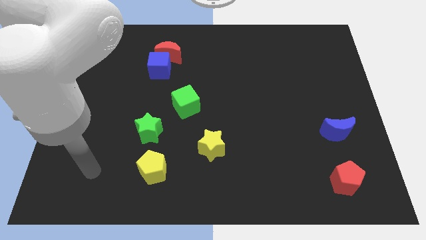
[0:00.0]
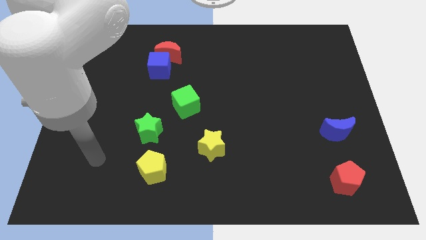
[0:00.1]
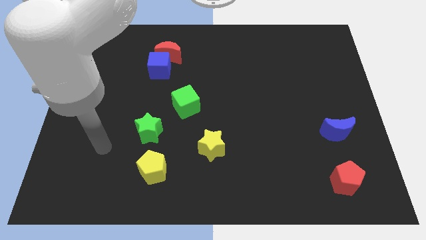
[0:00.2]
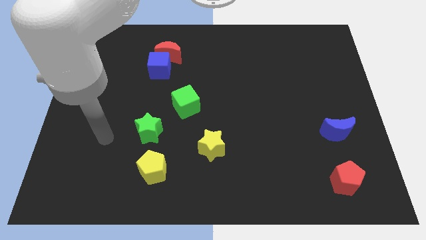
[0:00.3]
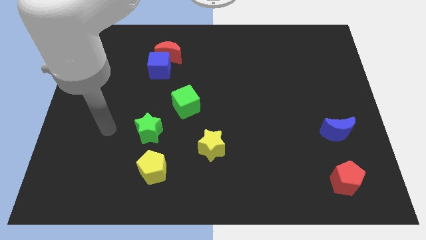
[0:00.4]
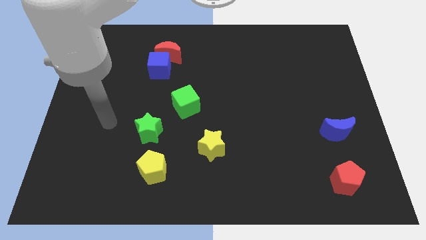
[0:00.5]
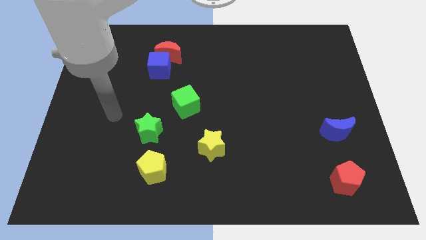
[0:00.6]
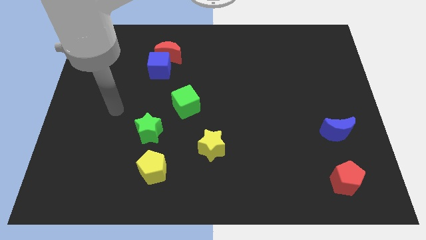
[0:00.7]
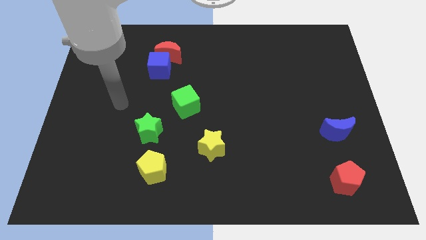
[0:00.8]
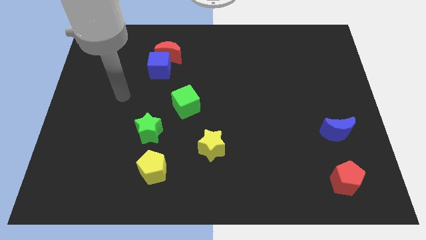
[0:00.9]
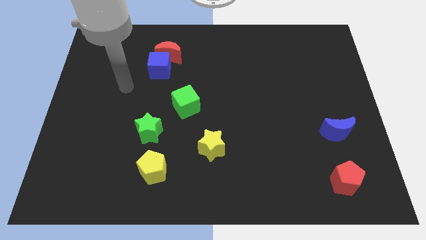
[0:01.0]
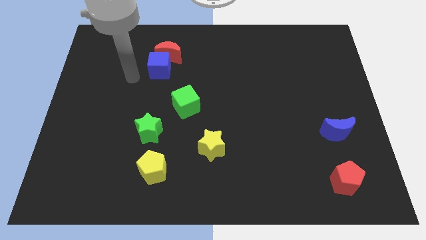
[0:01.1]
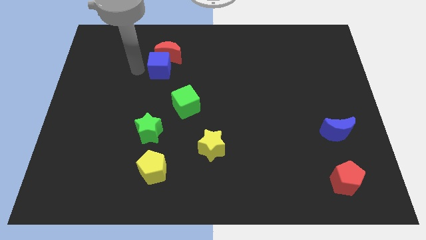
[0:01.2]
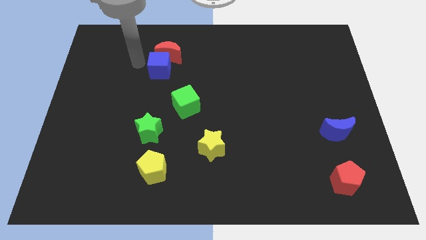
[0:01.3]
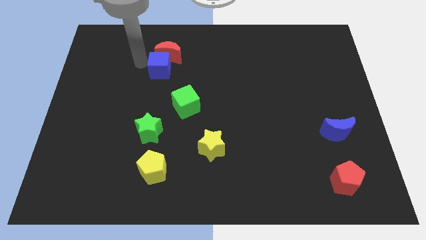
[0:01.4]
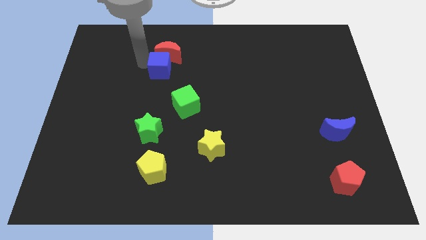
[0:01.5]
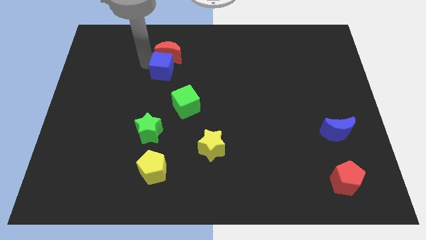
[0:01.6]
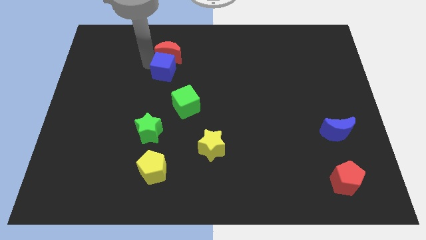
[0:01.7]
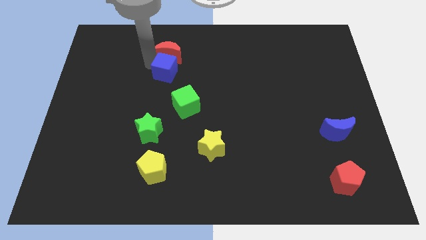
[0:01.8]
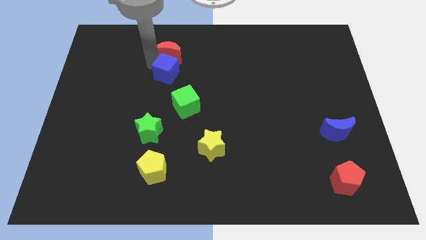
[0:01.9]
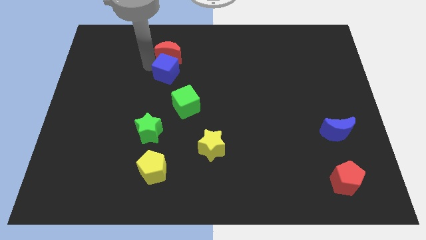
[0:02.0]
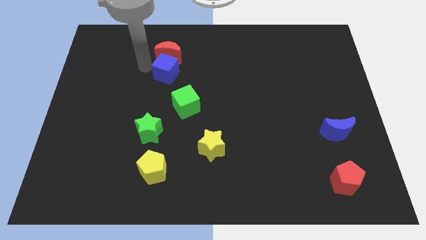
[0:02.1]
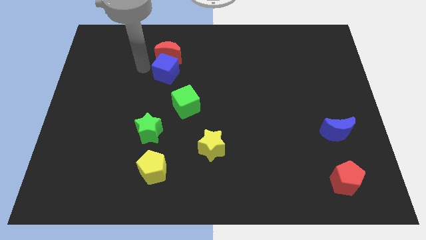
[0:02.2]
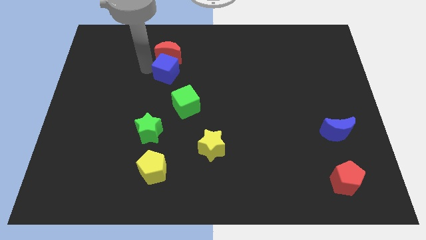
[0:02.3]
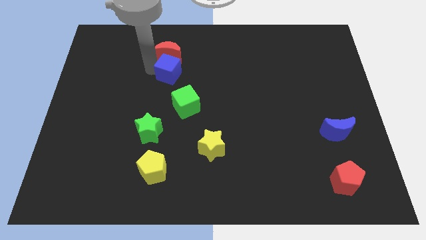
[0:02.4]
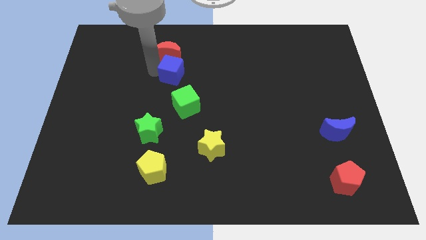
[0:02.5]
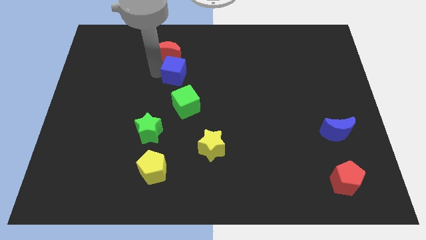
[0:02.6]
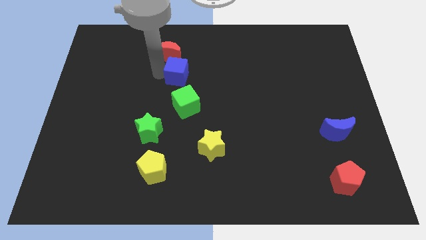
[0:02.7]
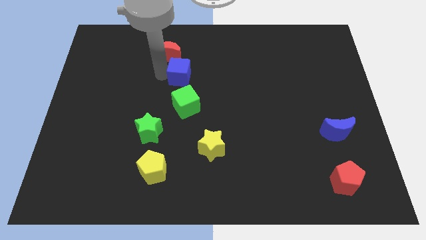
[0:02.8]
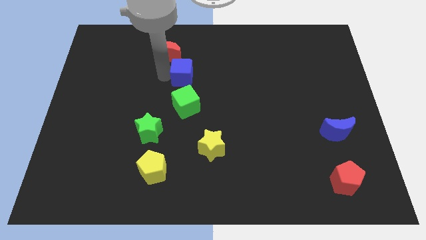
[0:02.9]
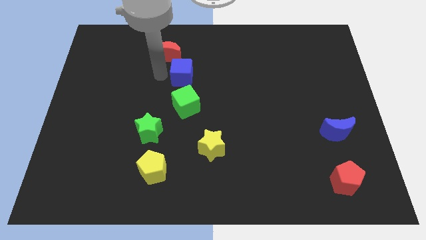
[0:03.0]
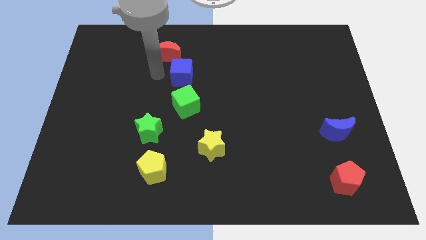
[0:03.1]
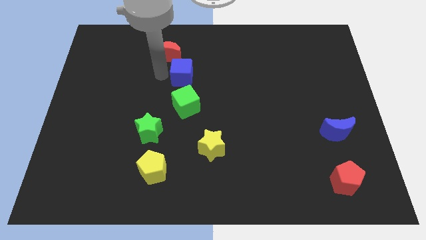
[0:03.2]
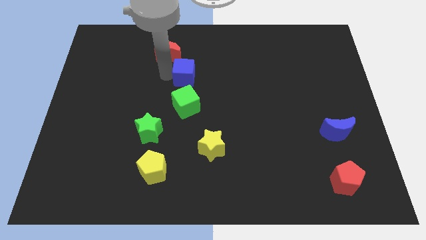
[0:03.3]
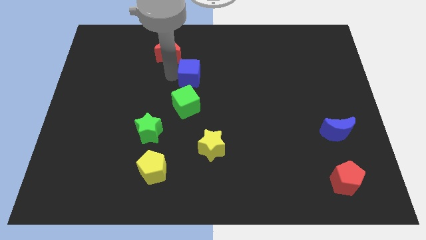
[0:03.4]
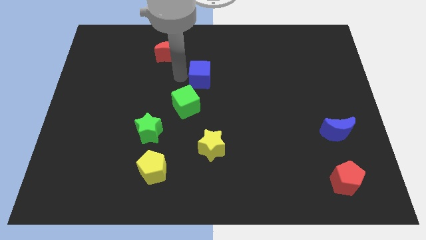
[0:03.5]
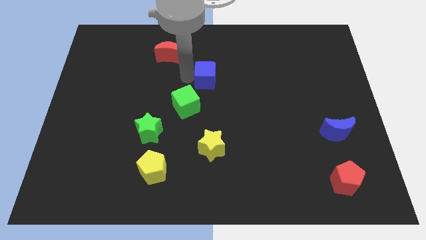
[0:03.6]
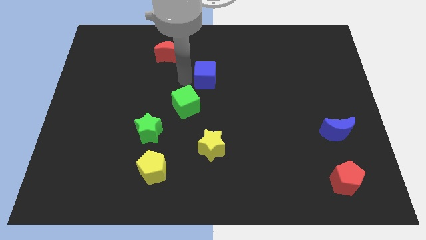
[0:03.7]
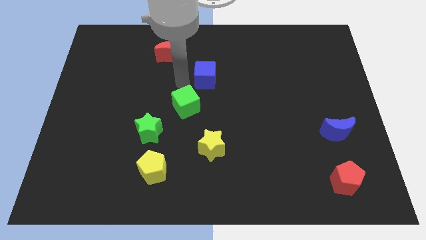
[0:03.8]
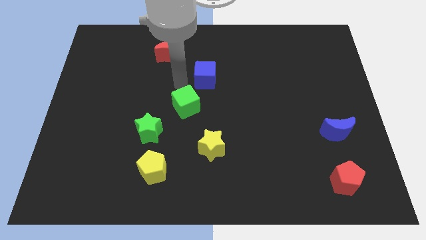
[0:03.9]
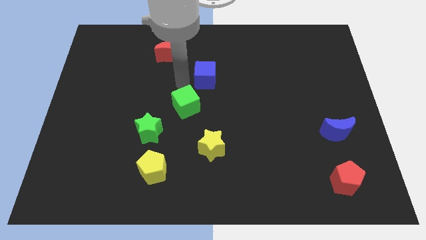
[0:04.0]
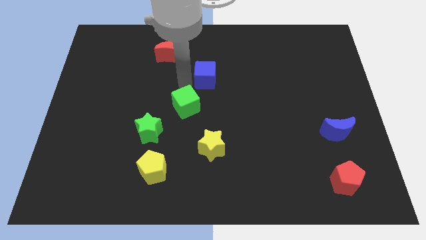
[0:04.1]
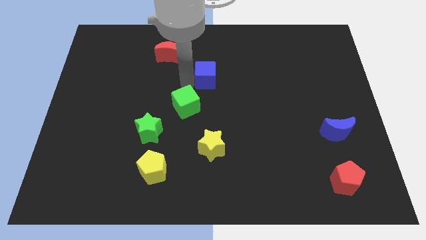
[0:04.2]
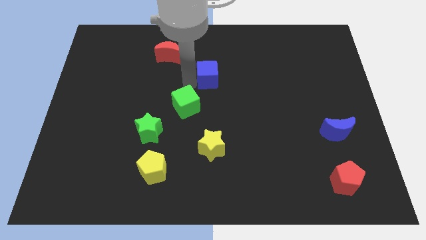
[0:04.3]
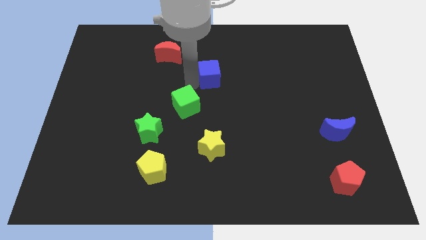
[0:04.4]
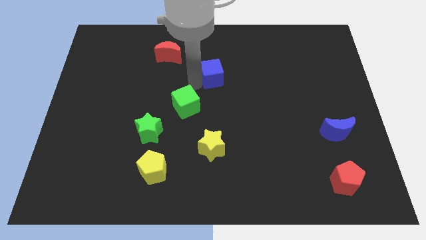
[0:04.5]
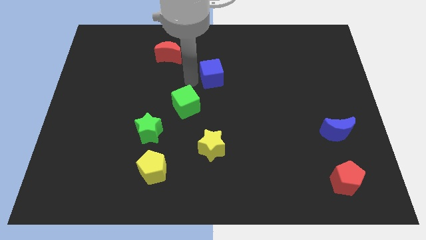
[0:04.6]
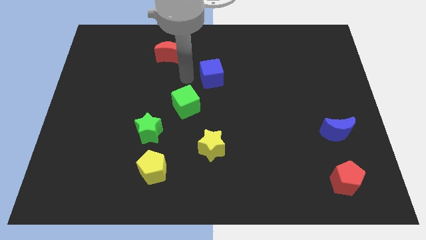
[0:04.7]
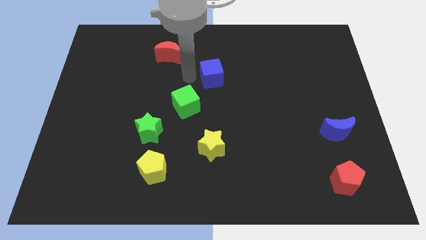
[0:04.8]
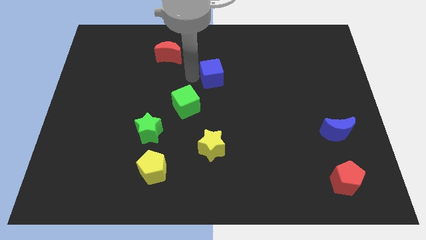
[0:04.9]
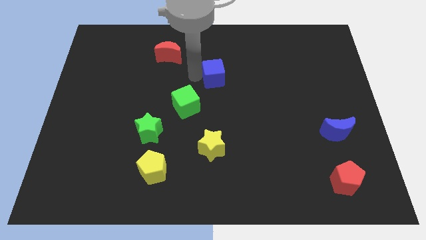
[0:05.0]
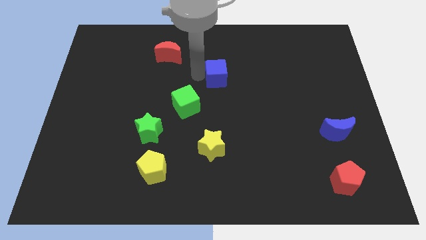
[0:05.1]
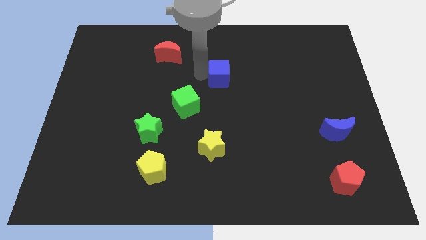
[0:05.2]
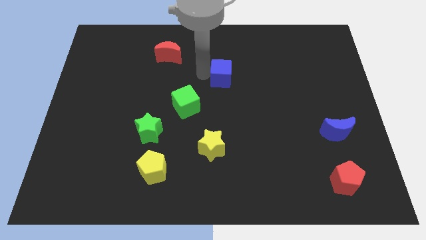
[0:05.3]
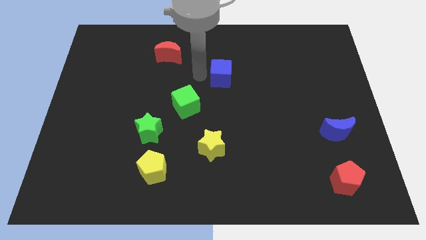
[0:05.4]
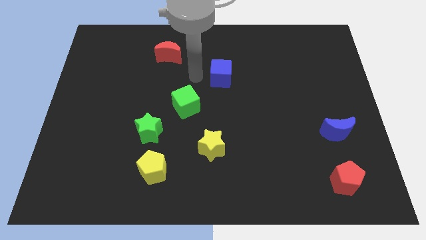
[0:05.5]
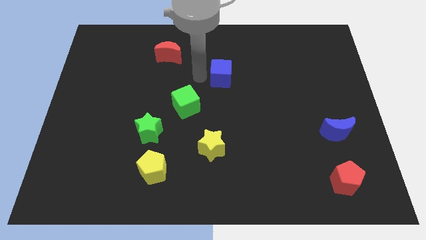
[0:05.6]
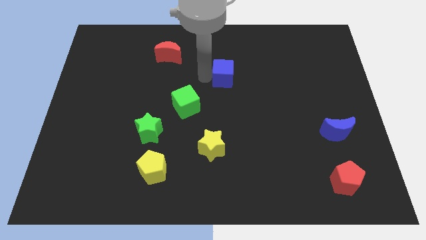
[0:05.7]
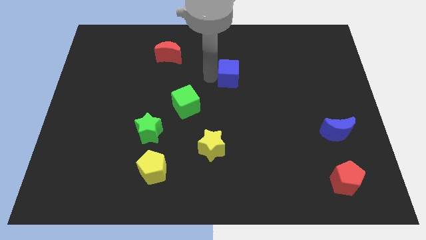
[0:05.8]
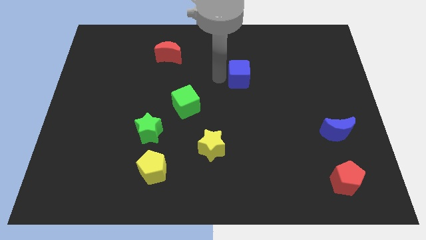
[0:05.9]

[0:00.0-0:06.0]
slide the blue cube to the right

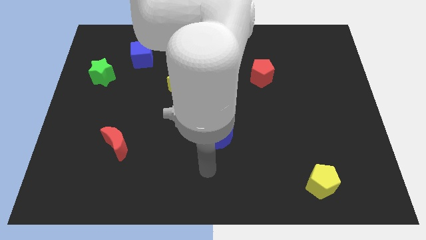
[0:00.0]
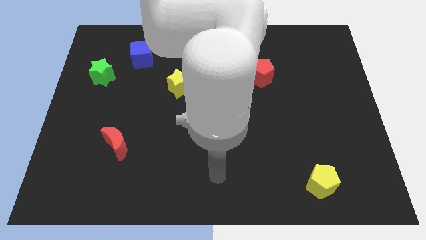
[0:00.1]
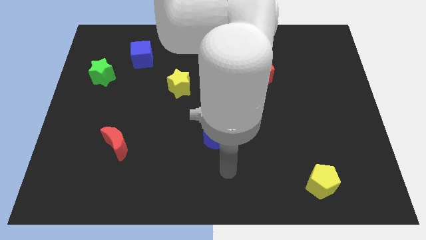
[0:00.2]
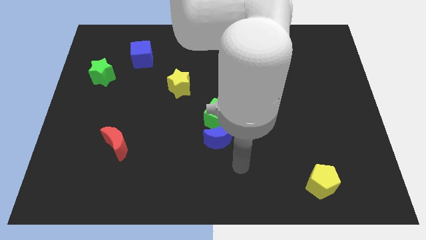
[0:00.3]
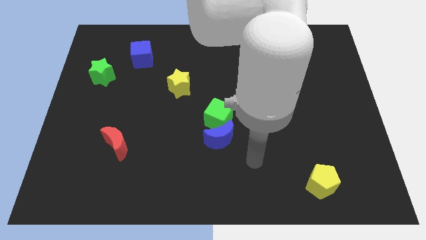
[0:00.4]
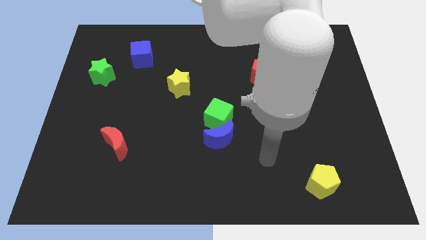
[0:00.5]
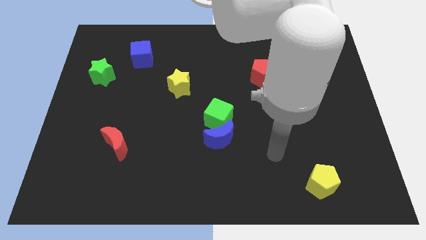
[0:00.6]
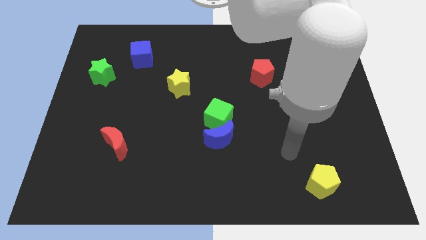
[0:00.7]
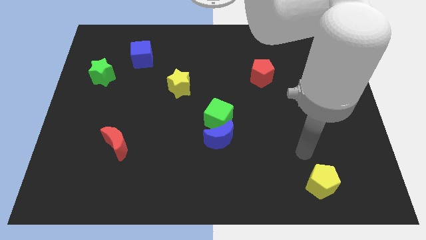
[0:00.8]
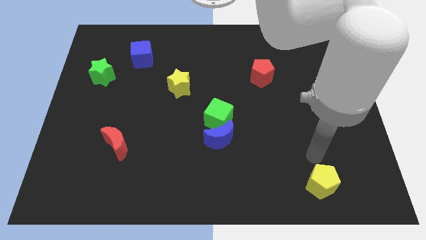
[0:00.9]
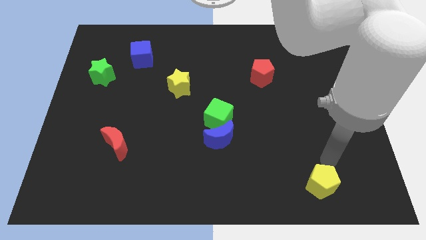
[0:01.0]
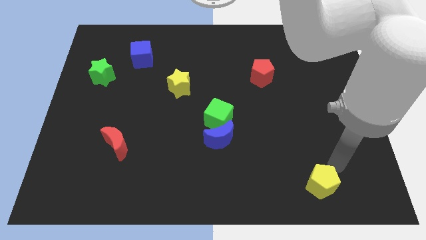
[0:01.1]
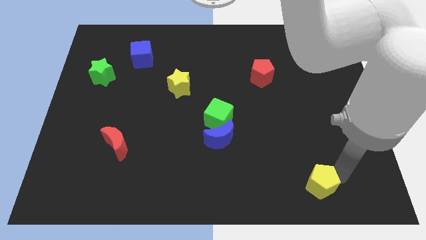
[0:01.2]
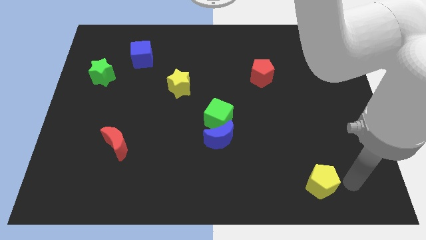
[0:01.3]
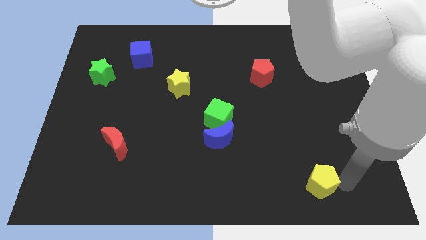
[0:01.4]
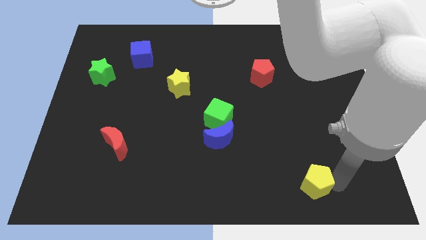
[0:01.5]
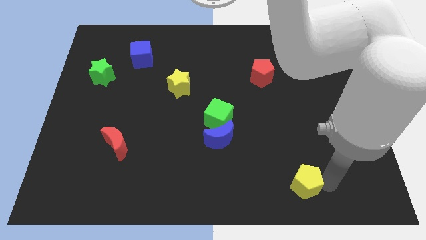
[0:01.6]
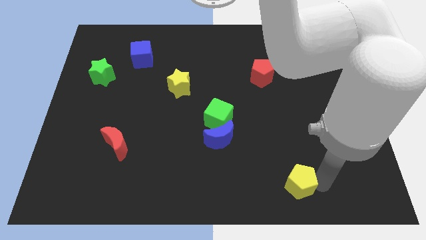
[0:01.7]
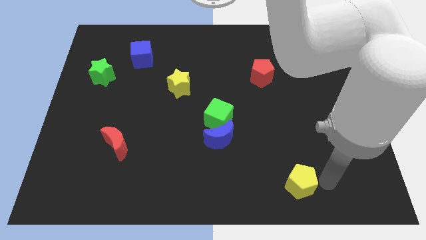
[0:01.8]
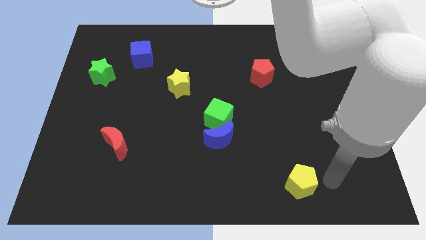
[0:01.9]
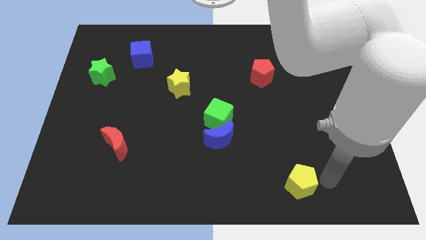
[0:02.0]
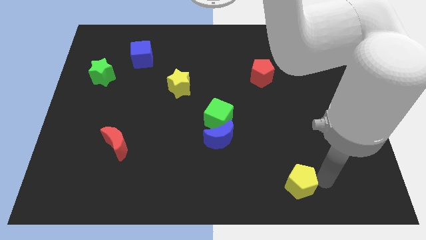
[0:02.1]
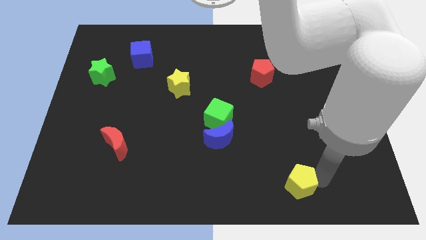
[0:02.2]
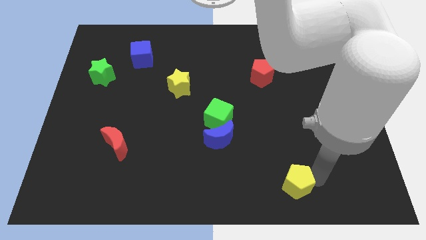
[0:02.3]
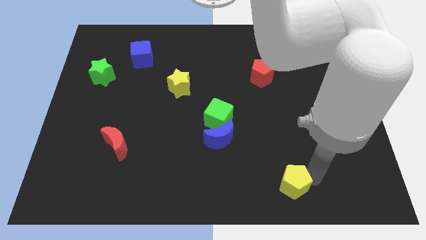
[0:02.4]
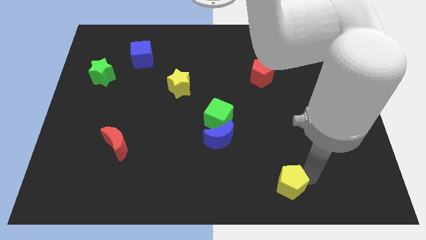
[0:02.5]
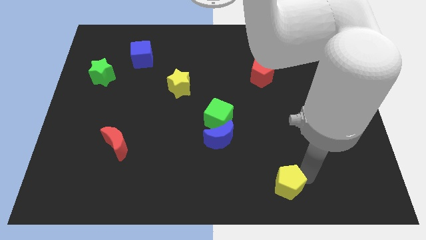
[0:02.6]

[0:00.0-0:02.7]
push the yellow pentagon left slightly
